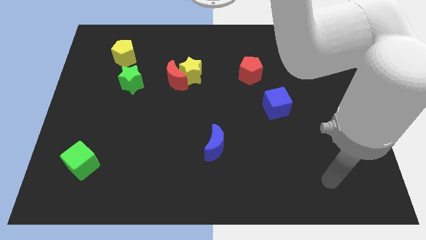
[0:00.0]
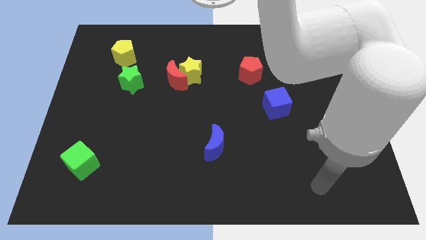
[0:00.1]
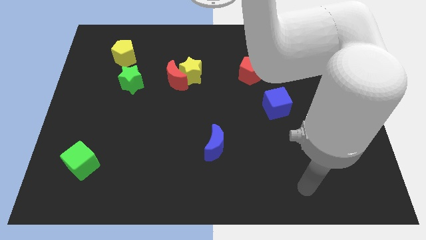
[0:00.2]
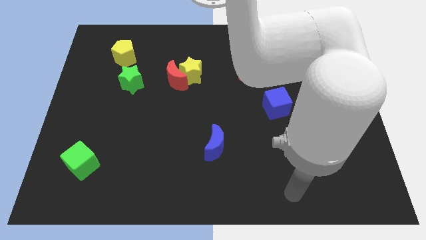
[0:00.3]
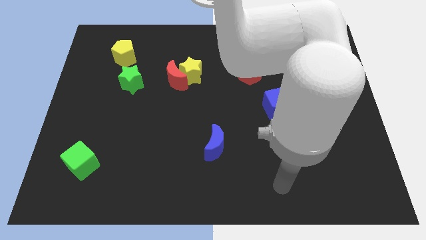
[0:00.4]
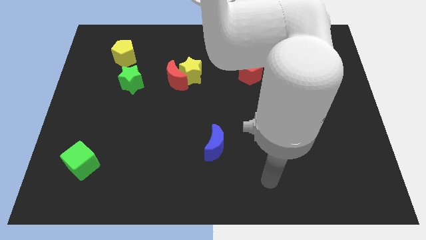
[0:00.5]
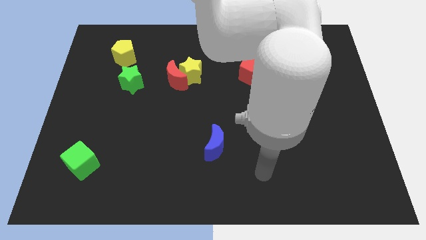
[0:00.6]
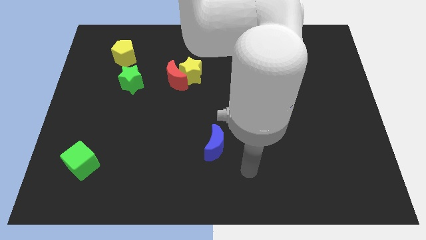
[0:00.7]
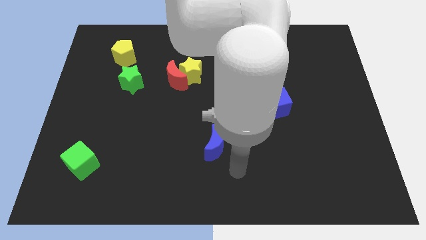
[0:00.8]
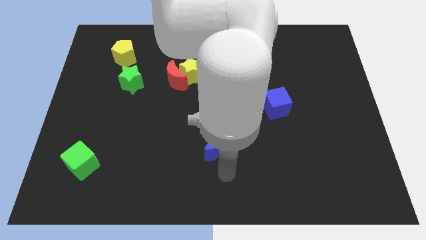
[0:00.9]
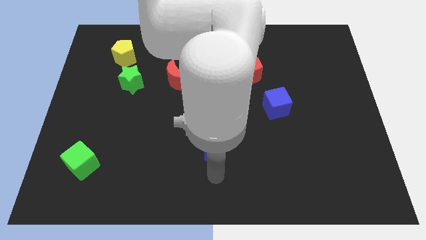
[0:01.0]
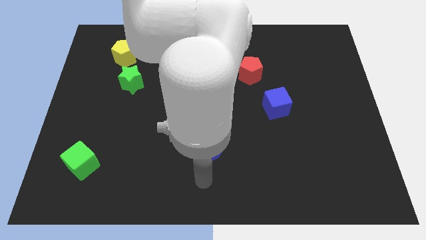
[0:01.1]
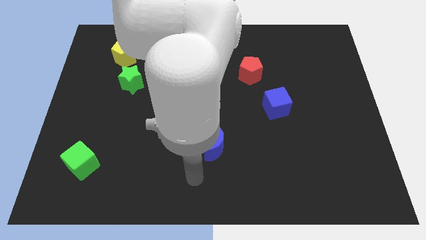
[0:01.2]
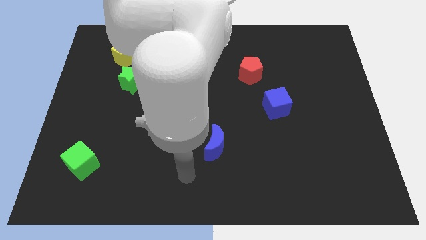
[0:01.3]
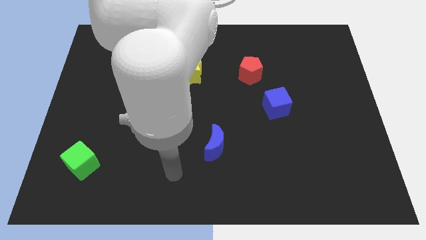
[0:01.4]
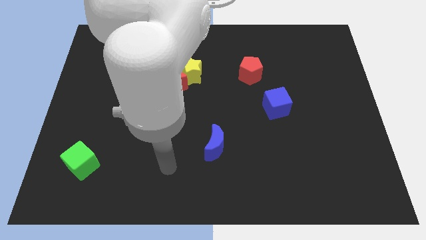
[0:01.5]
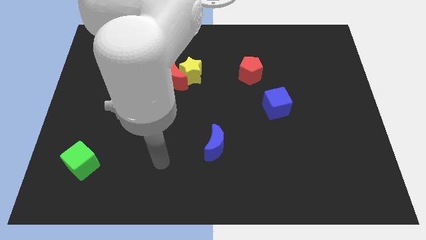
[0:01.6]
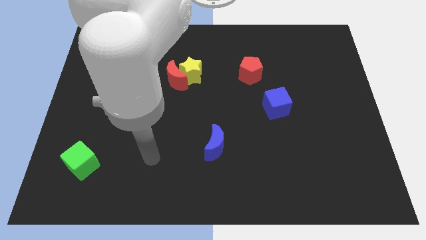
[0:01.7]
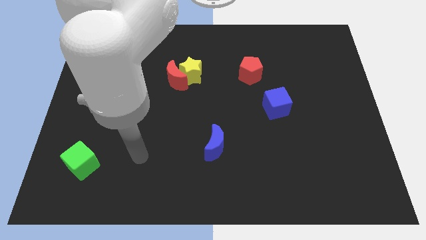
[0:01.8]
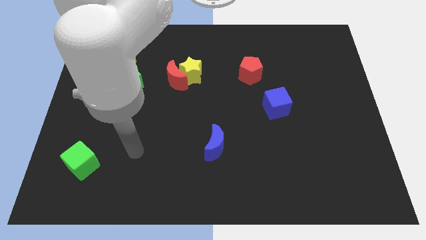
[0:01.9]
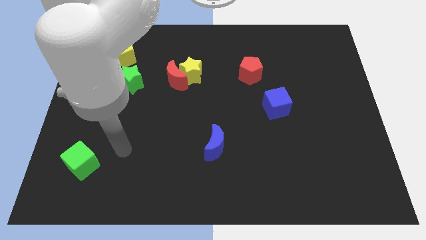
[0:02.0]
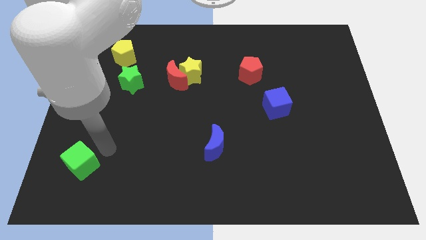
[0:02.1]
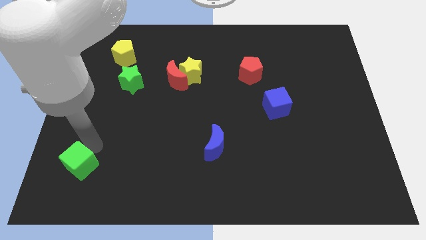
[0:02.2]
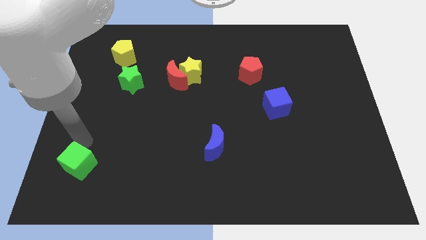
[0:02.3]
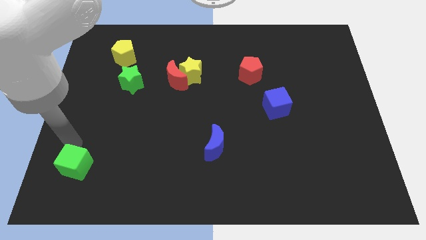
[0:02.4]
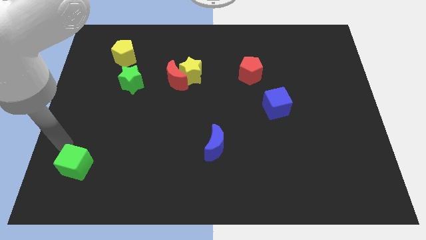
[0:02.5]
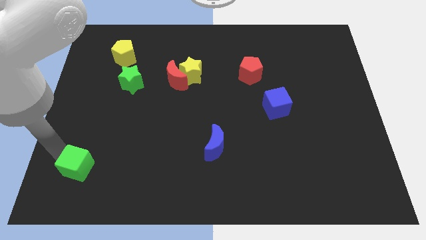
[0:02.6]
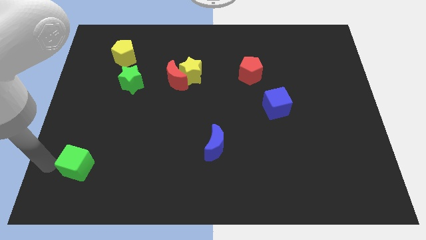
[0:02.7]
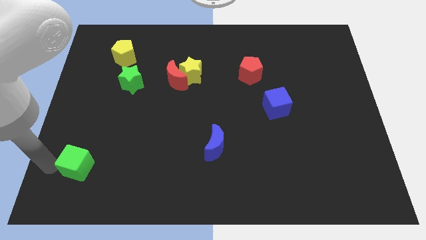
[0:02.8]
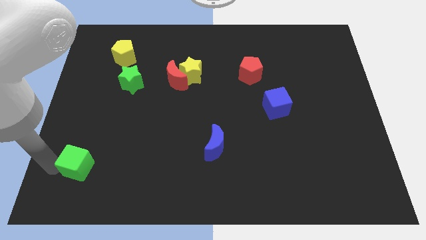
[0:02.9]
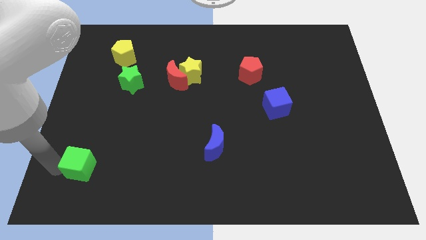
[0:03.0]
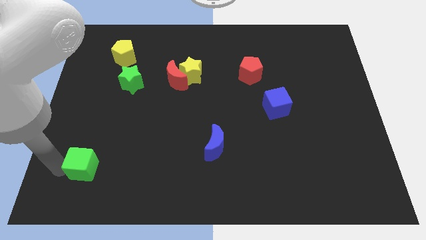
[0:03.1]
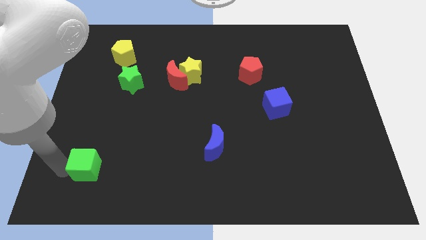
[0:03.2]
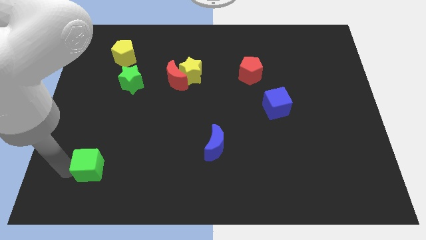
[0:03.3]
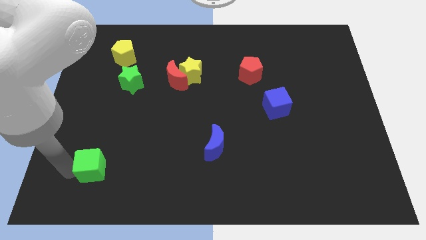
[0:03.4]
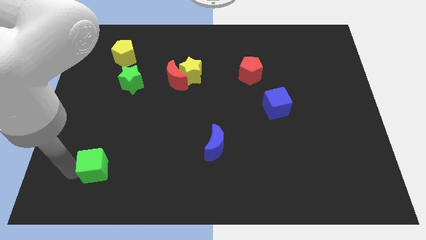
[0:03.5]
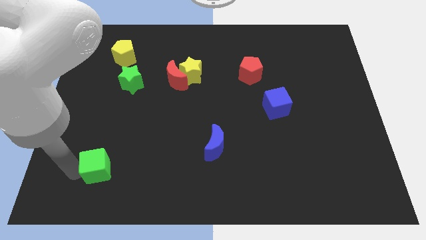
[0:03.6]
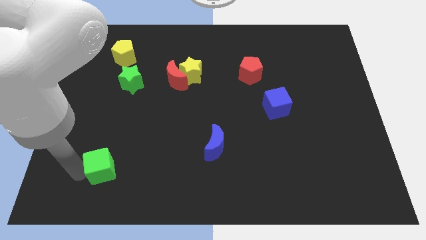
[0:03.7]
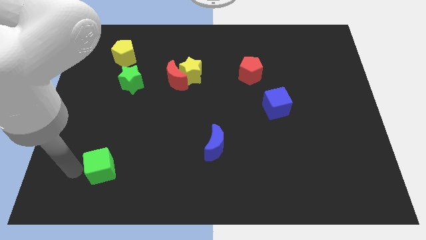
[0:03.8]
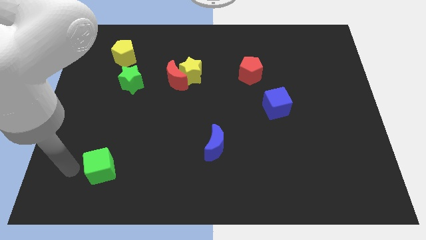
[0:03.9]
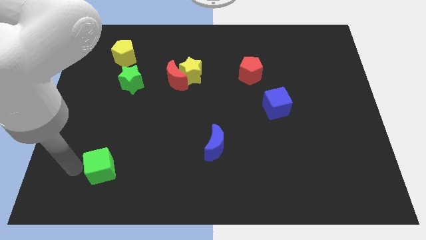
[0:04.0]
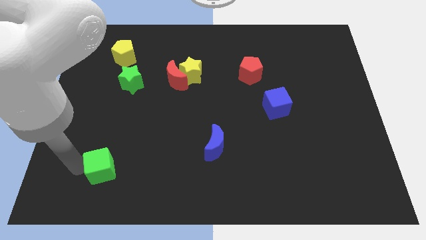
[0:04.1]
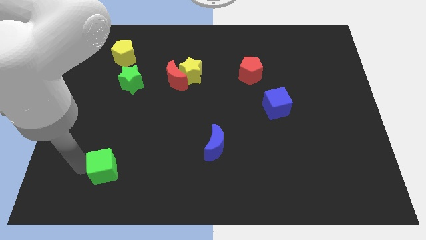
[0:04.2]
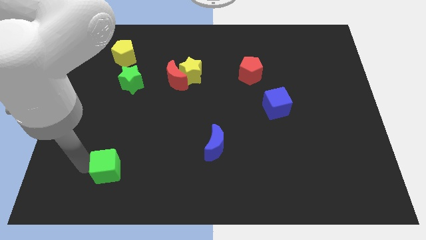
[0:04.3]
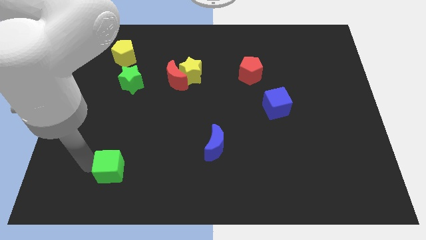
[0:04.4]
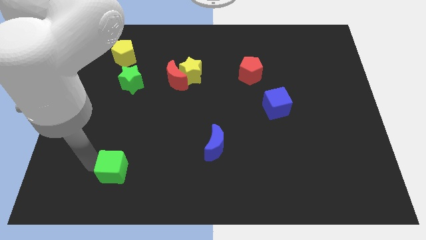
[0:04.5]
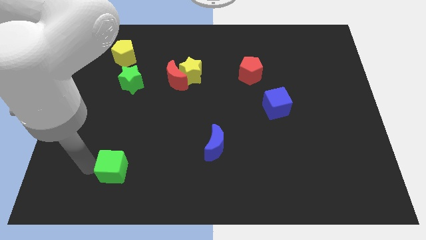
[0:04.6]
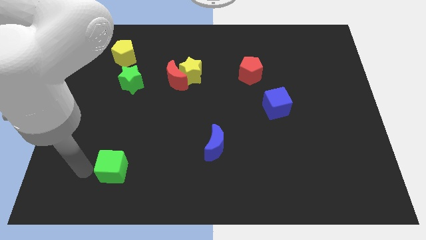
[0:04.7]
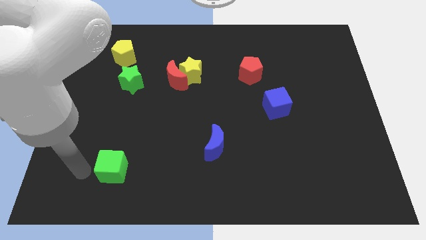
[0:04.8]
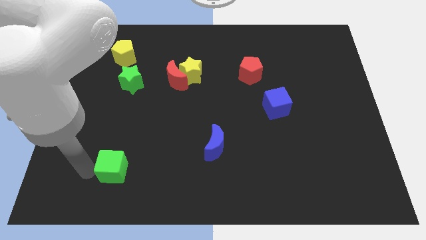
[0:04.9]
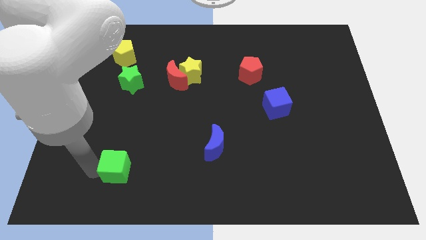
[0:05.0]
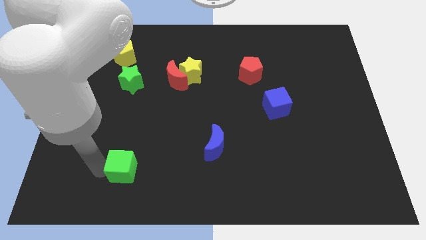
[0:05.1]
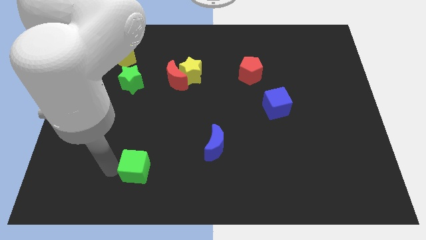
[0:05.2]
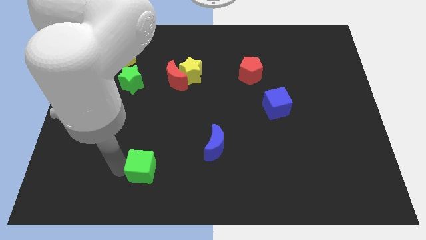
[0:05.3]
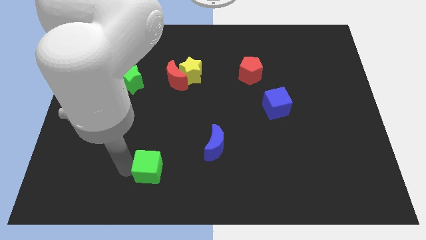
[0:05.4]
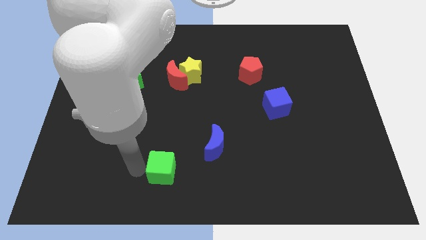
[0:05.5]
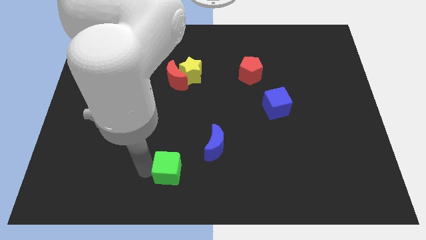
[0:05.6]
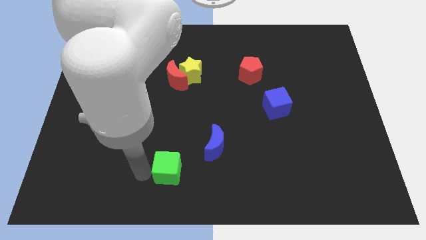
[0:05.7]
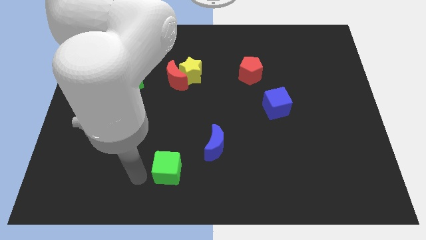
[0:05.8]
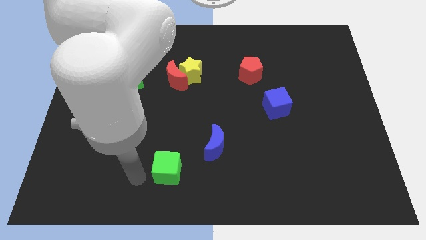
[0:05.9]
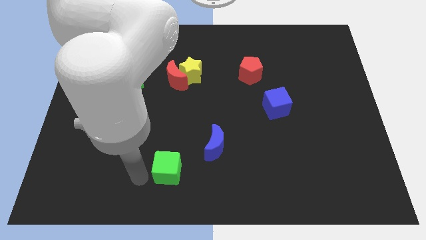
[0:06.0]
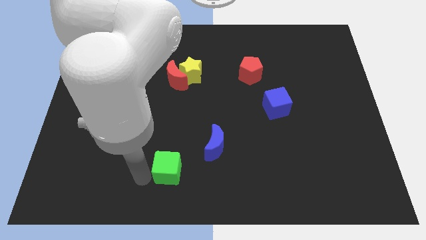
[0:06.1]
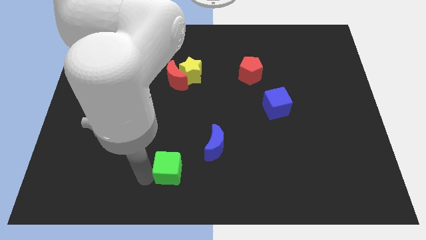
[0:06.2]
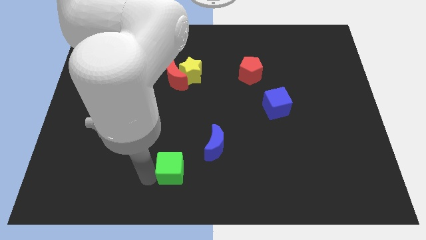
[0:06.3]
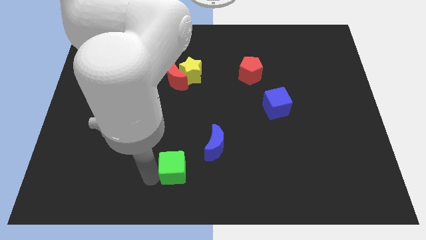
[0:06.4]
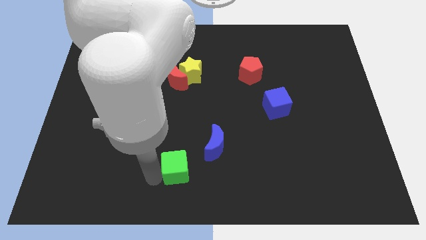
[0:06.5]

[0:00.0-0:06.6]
slide the green cube right

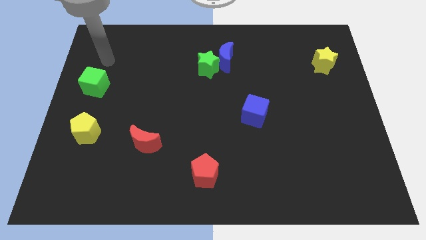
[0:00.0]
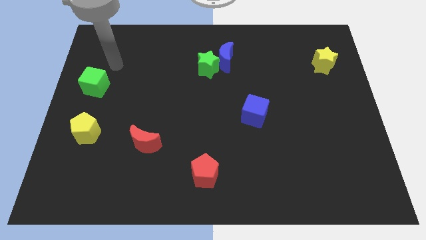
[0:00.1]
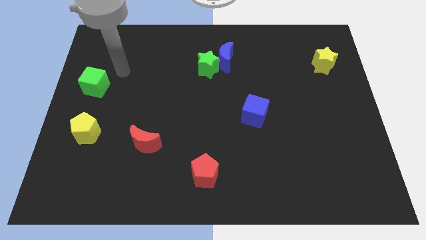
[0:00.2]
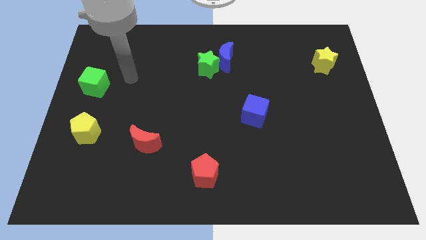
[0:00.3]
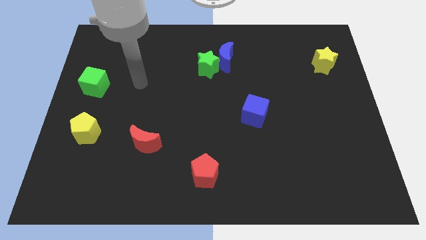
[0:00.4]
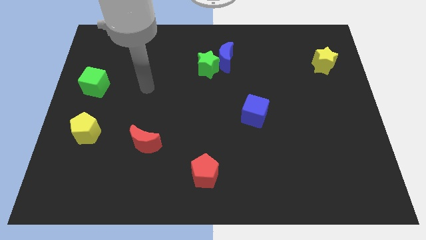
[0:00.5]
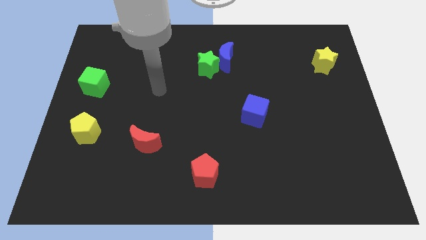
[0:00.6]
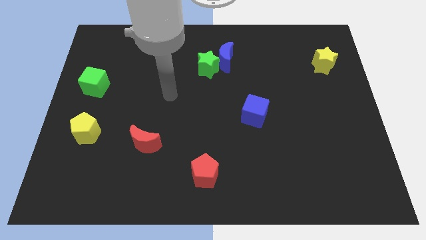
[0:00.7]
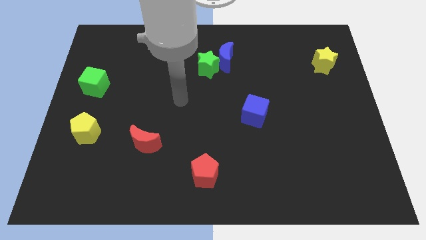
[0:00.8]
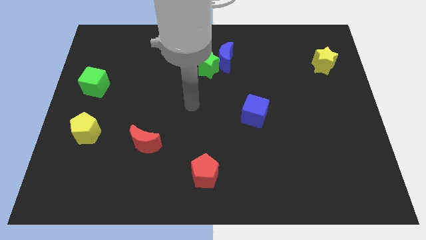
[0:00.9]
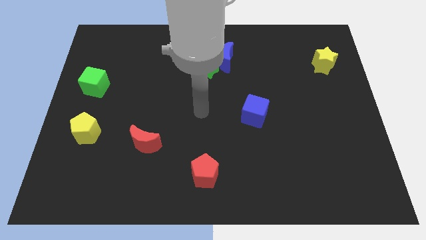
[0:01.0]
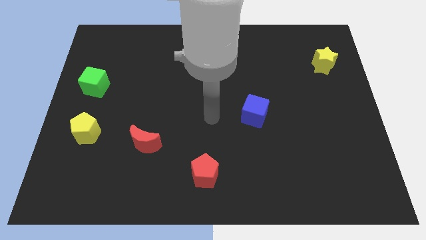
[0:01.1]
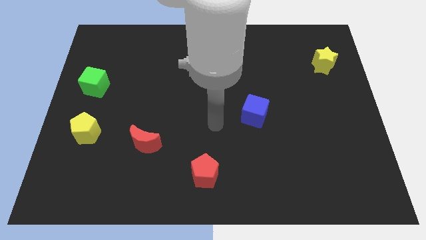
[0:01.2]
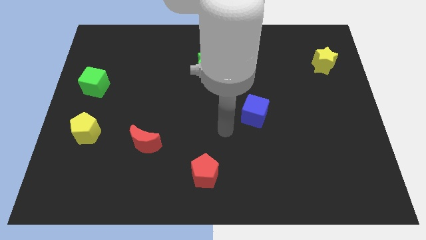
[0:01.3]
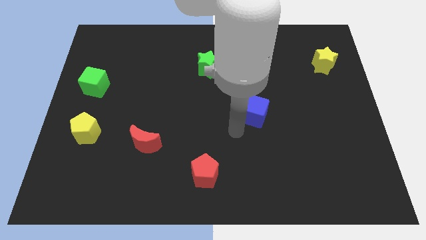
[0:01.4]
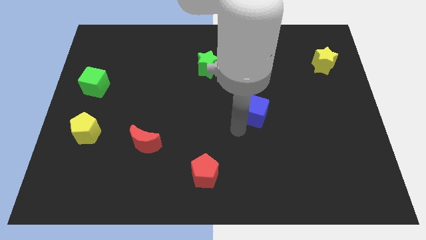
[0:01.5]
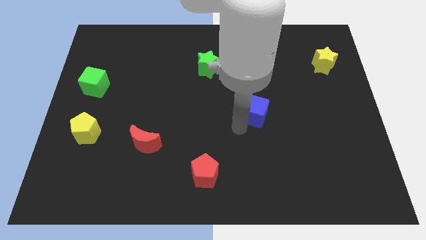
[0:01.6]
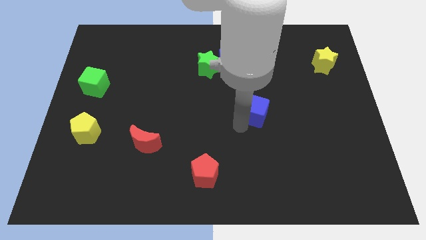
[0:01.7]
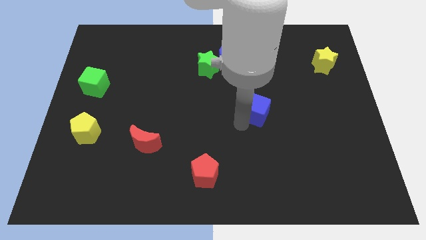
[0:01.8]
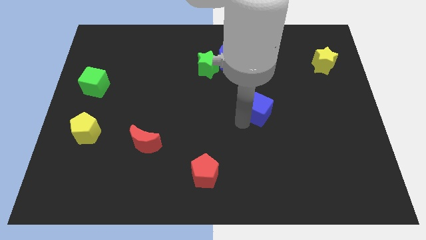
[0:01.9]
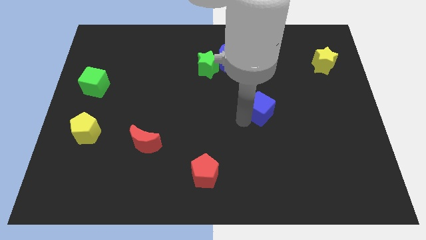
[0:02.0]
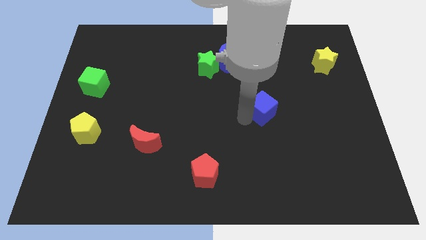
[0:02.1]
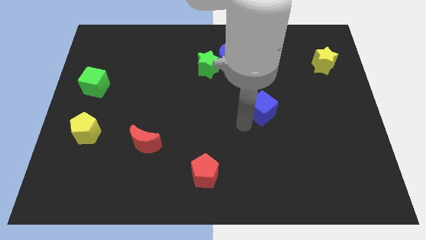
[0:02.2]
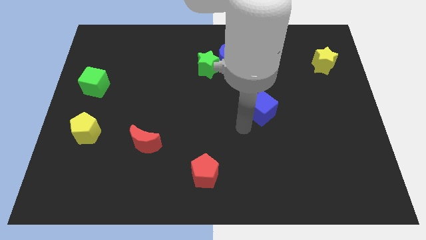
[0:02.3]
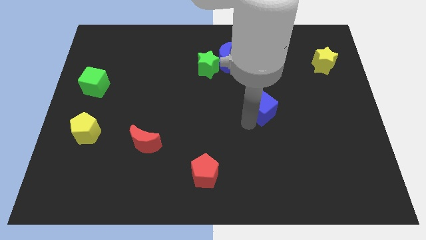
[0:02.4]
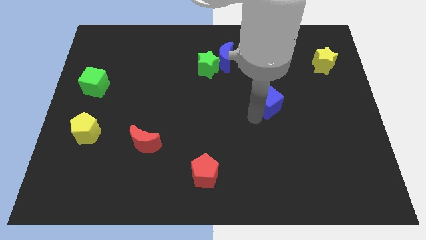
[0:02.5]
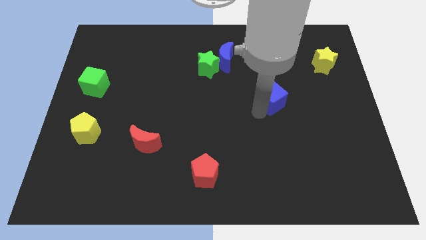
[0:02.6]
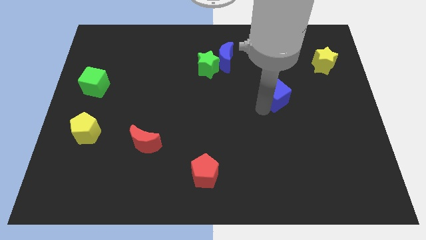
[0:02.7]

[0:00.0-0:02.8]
move the blue cube slightly upwards and right diagonally
